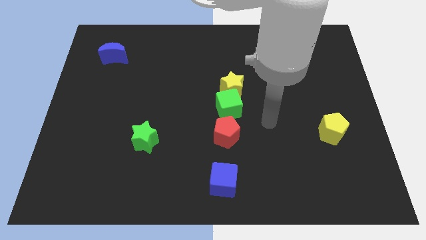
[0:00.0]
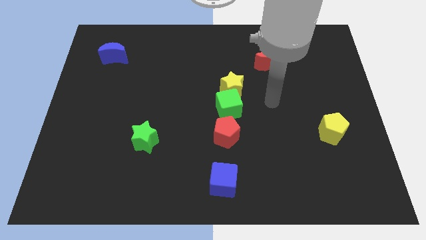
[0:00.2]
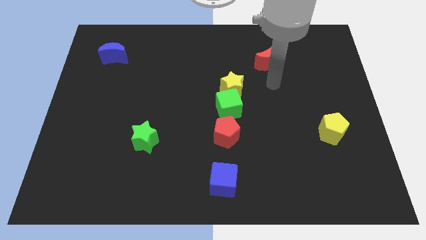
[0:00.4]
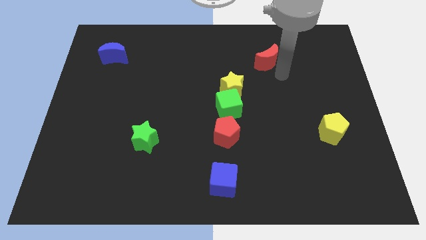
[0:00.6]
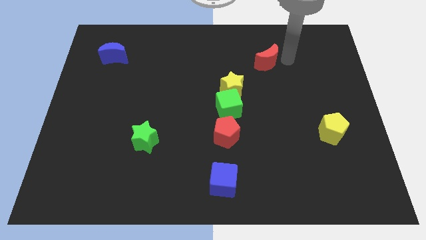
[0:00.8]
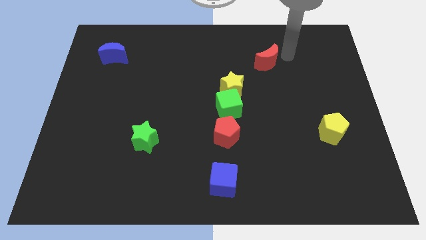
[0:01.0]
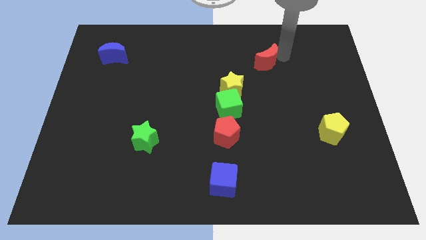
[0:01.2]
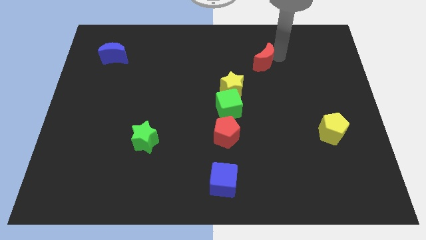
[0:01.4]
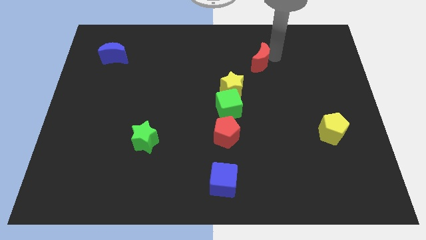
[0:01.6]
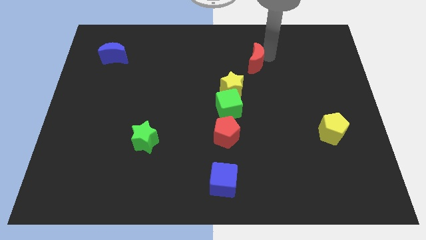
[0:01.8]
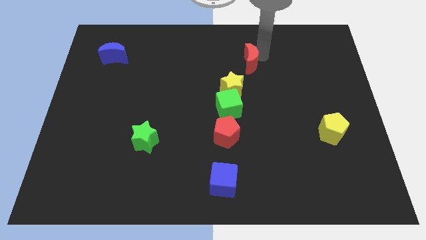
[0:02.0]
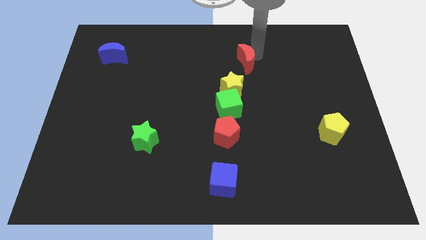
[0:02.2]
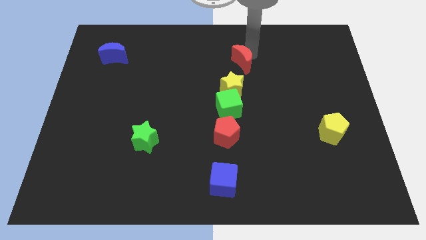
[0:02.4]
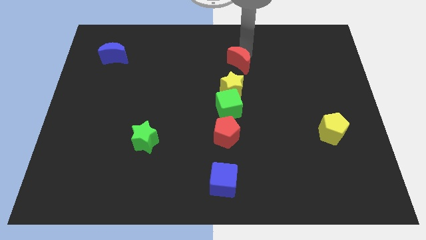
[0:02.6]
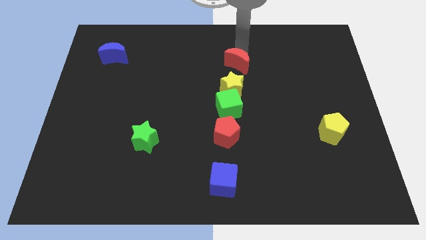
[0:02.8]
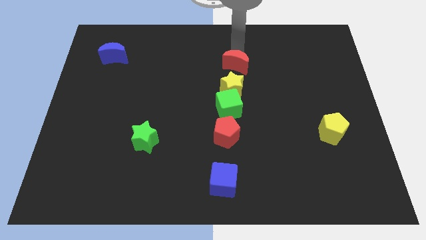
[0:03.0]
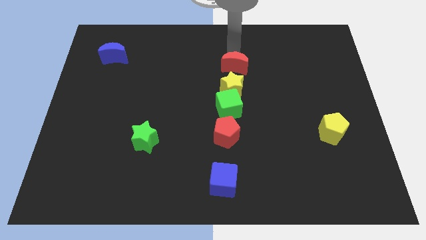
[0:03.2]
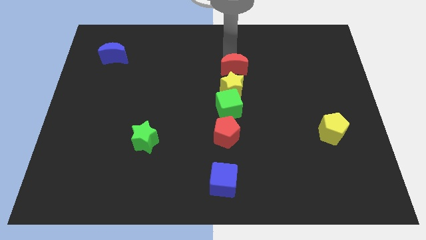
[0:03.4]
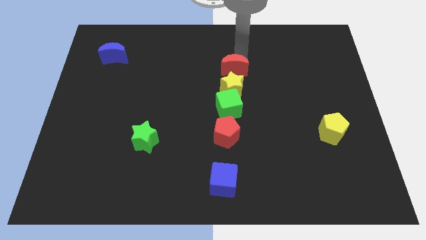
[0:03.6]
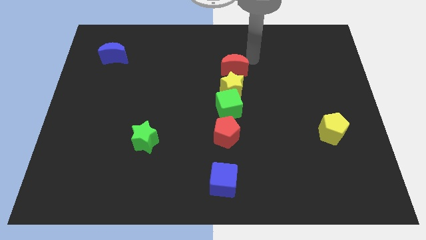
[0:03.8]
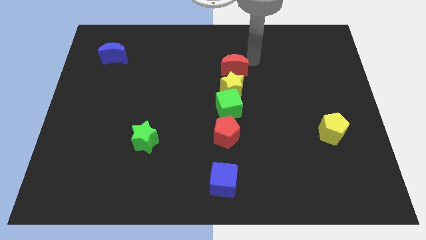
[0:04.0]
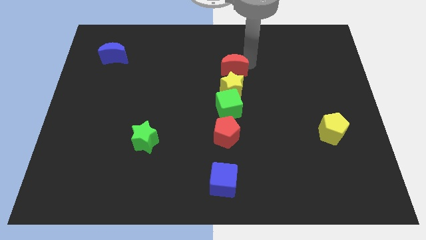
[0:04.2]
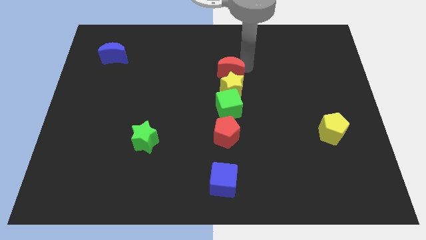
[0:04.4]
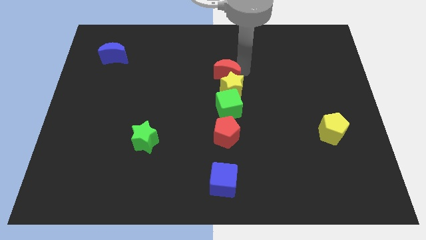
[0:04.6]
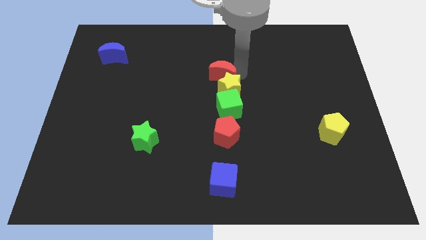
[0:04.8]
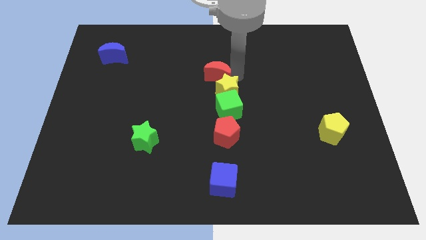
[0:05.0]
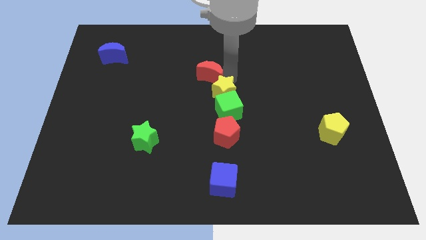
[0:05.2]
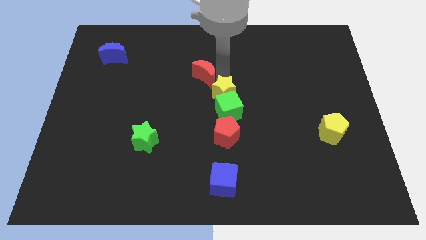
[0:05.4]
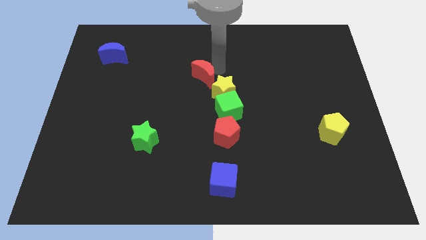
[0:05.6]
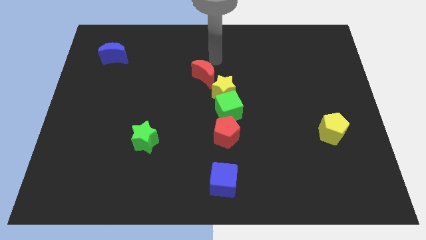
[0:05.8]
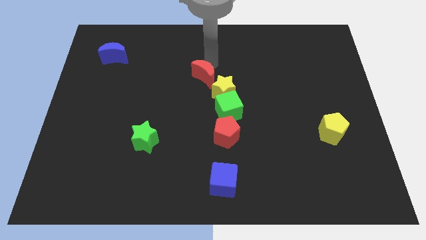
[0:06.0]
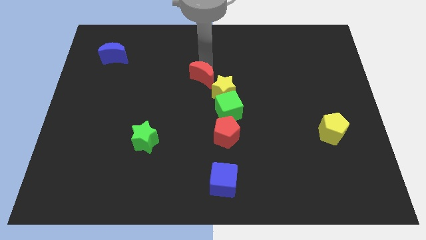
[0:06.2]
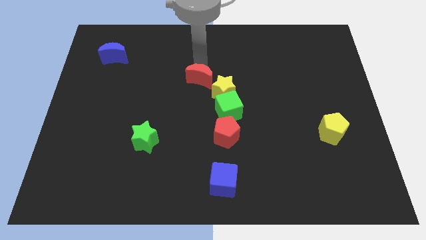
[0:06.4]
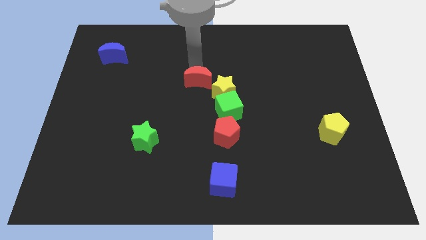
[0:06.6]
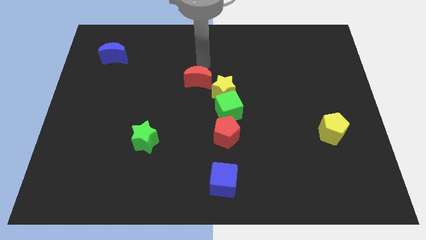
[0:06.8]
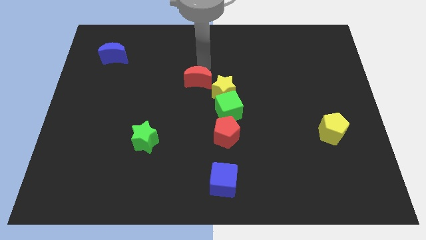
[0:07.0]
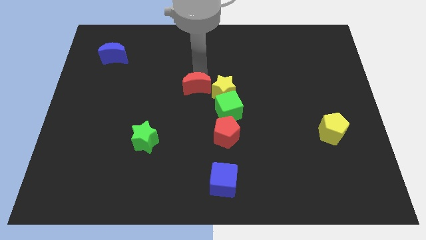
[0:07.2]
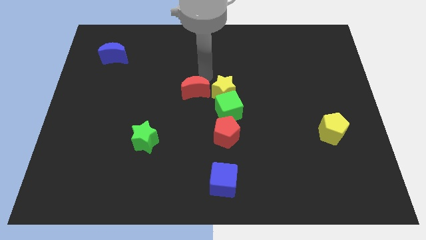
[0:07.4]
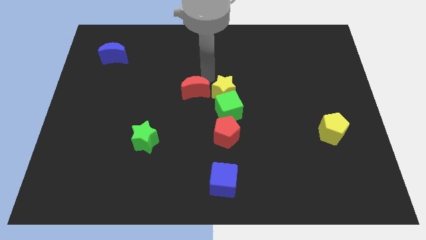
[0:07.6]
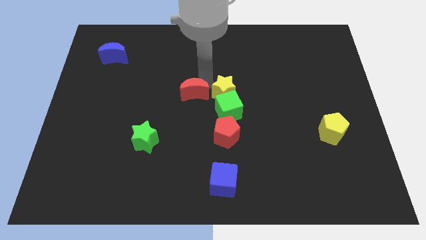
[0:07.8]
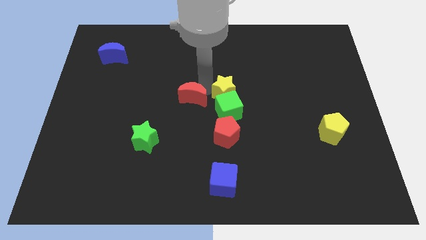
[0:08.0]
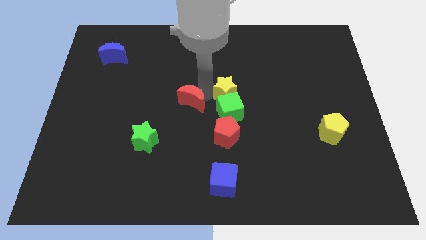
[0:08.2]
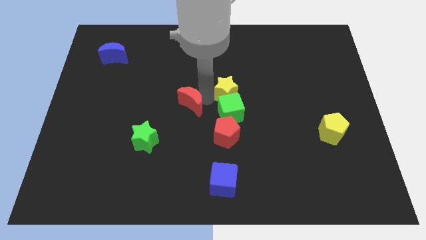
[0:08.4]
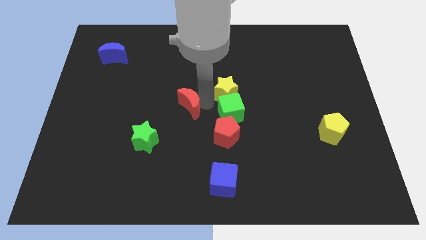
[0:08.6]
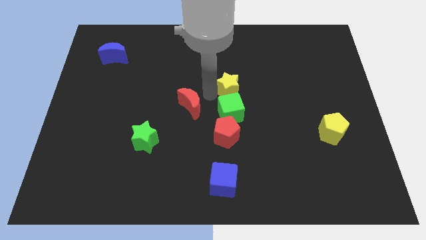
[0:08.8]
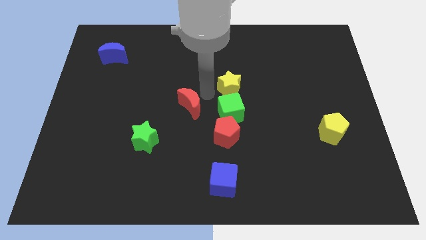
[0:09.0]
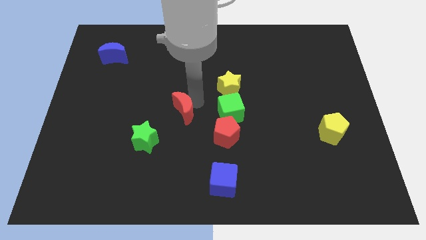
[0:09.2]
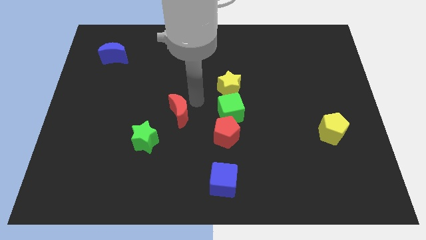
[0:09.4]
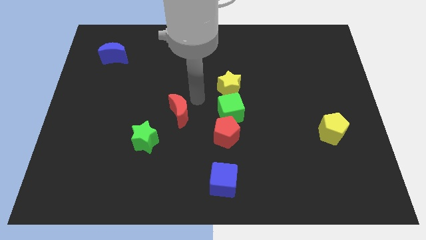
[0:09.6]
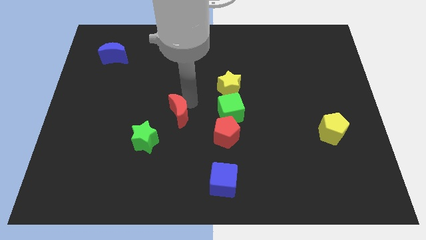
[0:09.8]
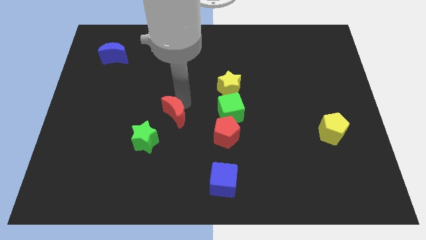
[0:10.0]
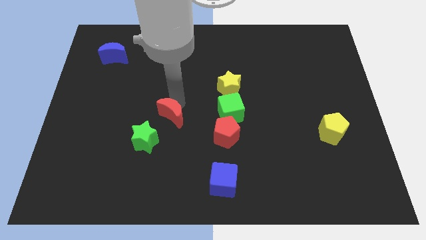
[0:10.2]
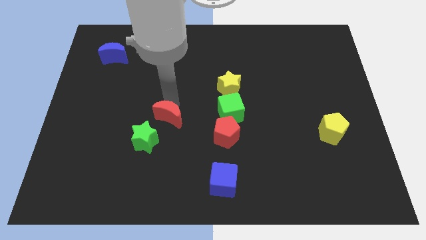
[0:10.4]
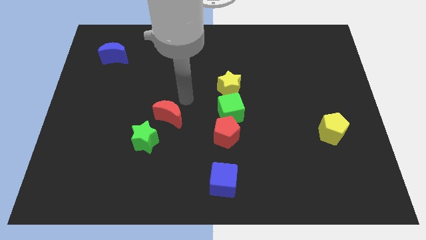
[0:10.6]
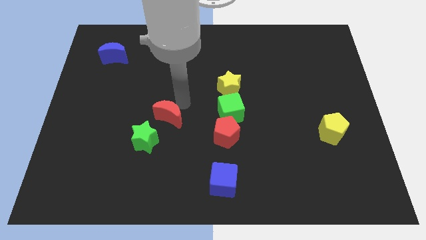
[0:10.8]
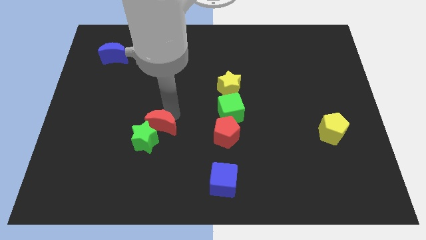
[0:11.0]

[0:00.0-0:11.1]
push the red moon close to the green star
